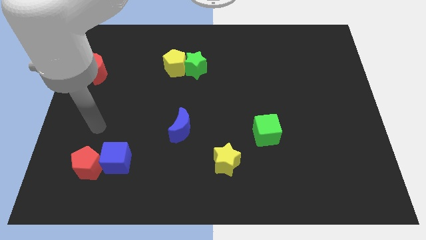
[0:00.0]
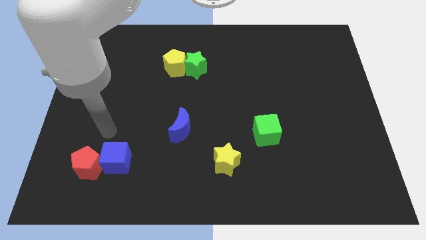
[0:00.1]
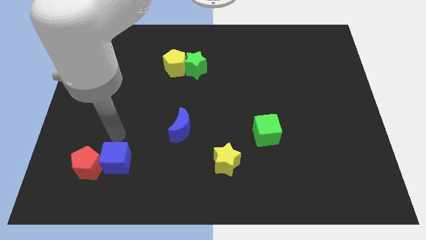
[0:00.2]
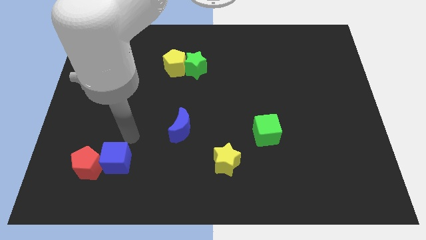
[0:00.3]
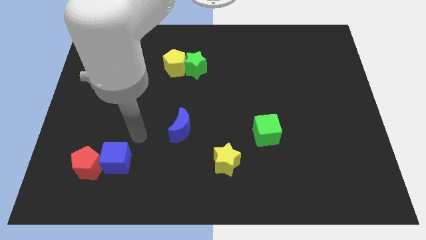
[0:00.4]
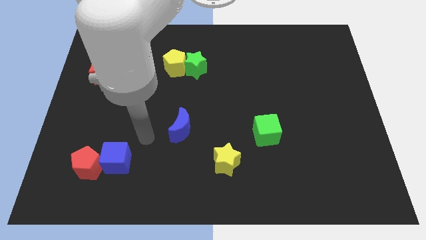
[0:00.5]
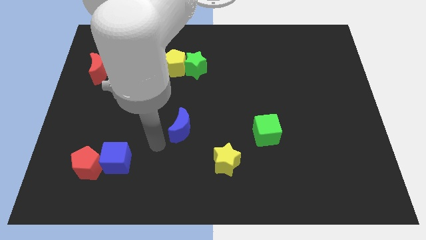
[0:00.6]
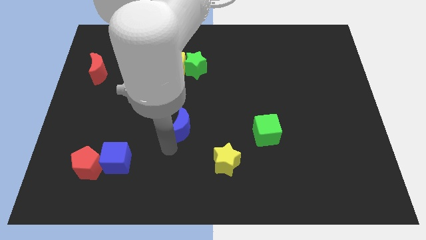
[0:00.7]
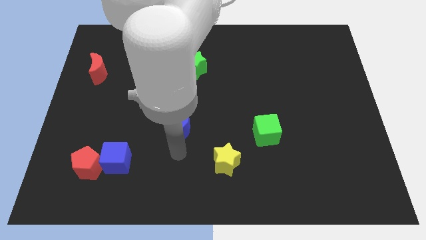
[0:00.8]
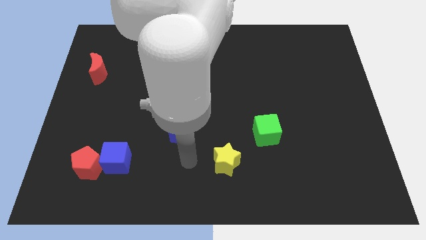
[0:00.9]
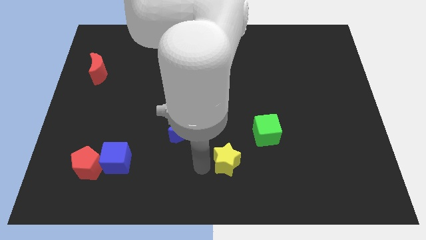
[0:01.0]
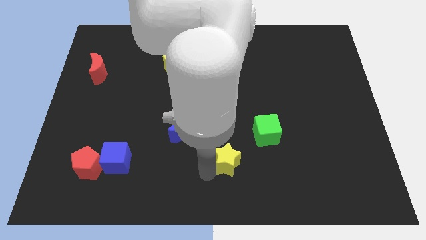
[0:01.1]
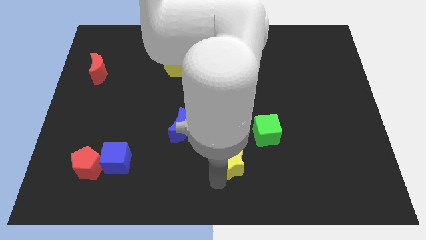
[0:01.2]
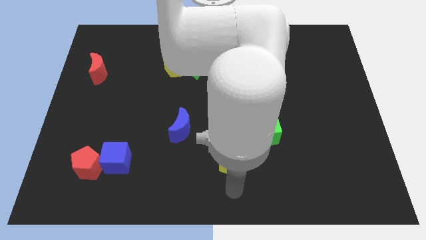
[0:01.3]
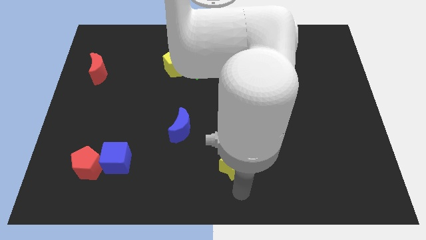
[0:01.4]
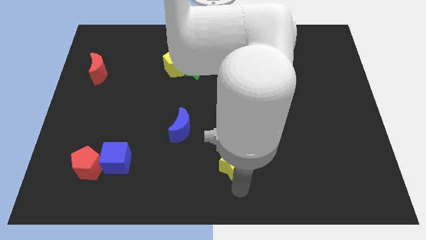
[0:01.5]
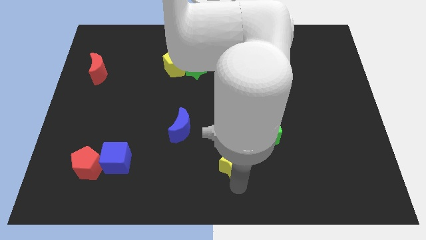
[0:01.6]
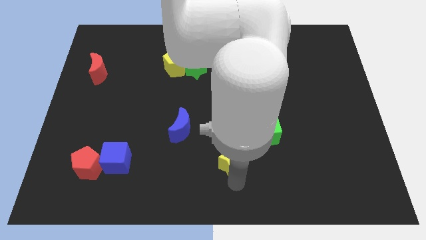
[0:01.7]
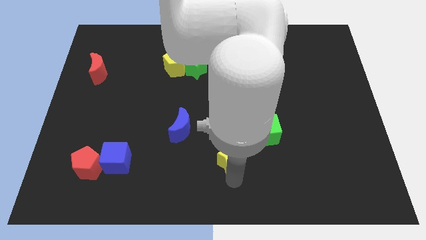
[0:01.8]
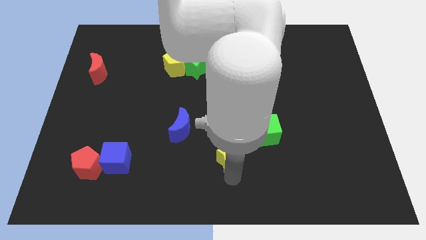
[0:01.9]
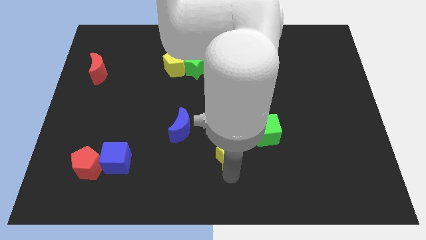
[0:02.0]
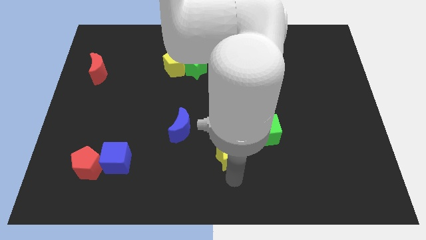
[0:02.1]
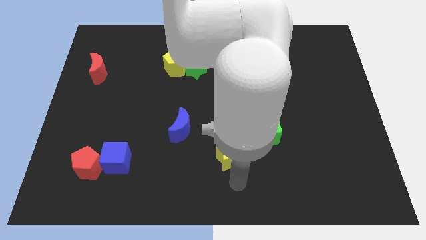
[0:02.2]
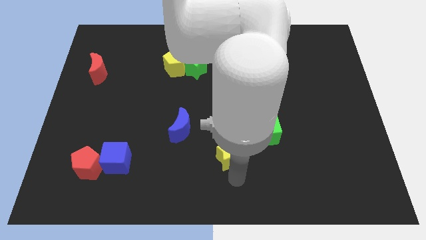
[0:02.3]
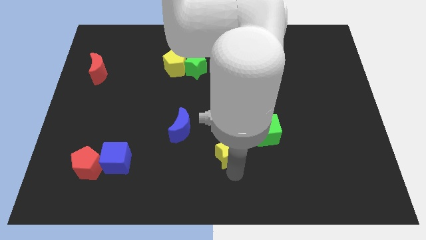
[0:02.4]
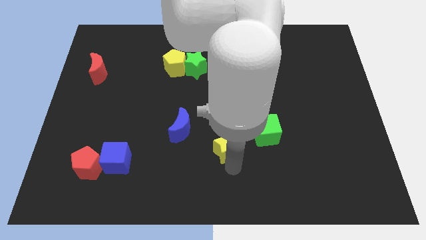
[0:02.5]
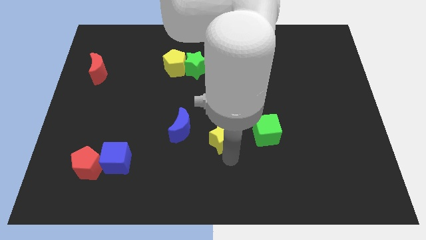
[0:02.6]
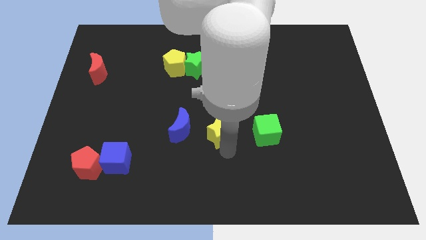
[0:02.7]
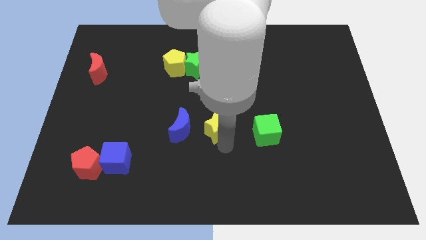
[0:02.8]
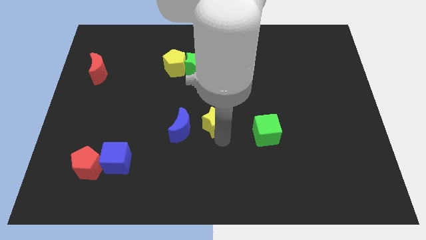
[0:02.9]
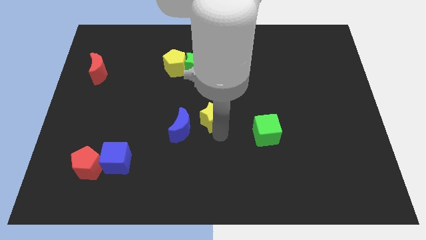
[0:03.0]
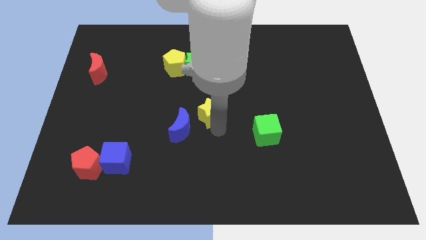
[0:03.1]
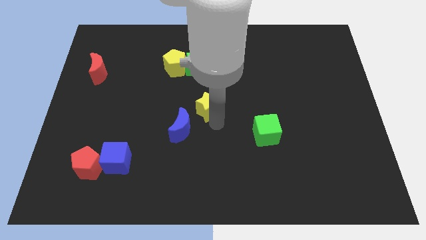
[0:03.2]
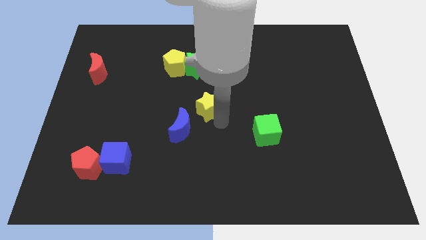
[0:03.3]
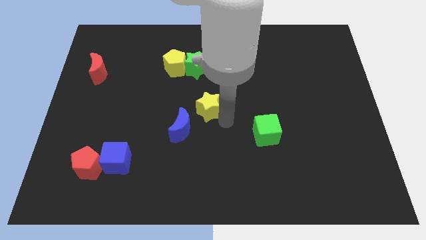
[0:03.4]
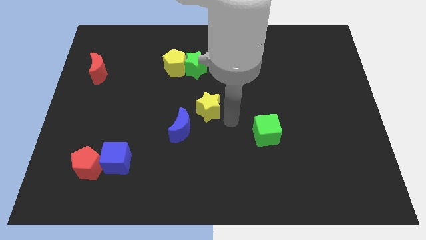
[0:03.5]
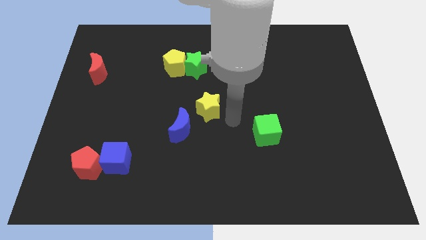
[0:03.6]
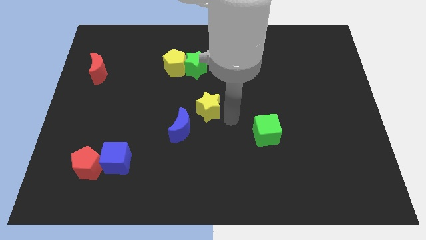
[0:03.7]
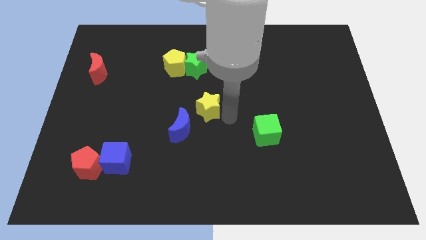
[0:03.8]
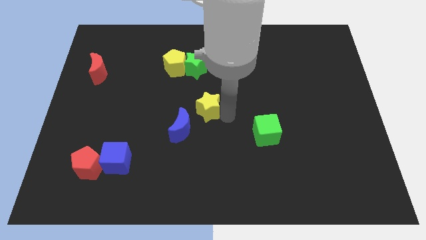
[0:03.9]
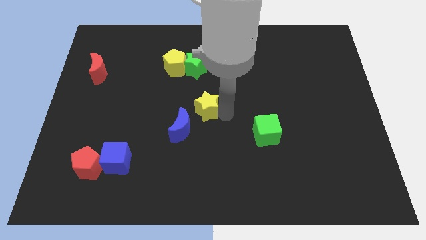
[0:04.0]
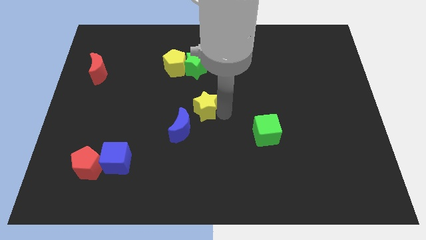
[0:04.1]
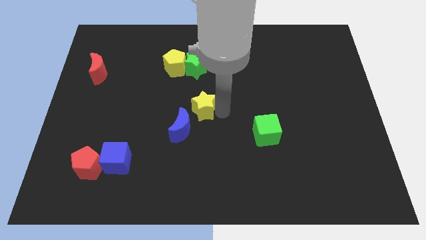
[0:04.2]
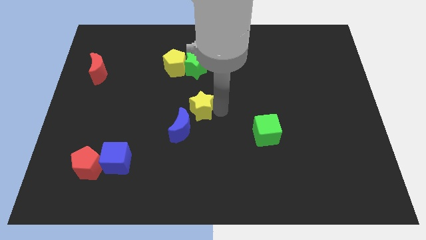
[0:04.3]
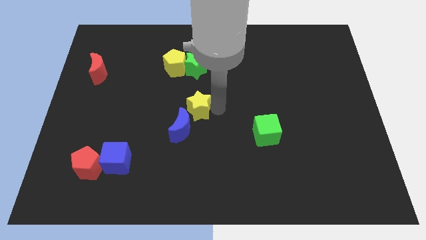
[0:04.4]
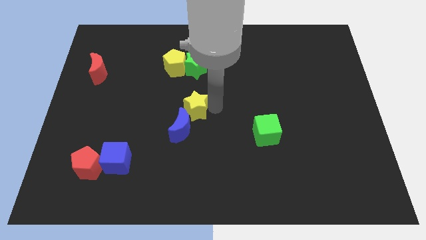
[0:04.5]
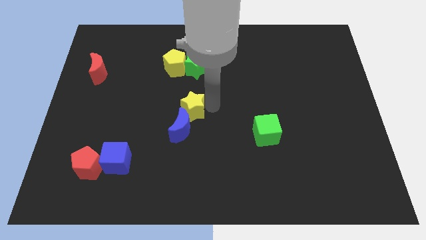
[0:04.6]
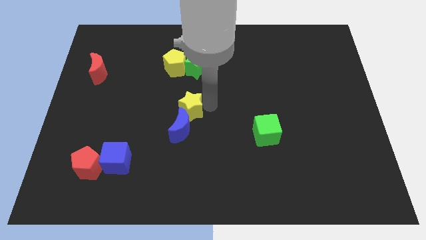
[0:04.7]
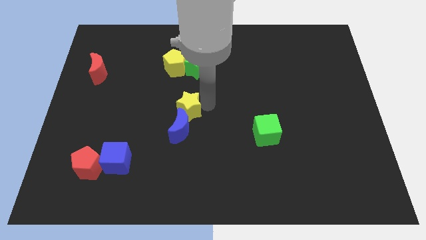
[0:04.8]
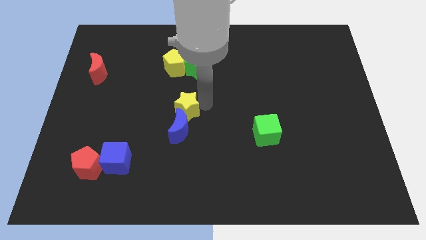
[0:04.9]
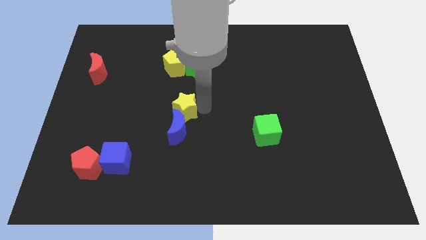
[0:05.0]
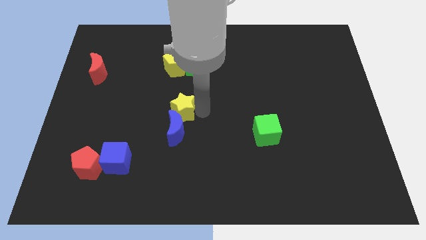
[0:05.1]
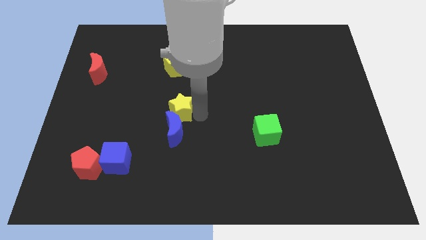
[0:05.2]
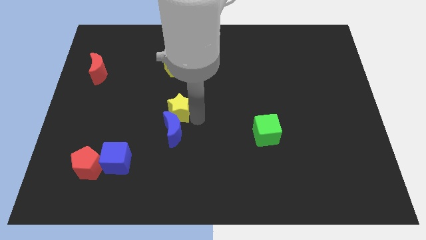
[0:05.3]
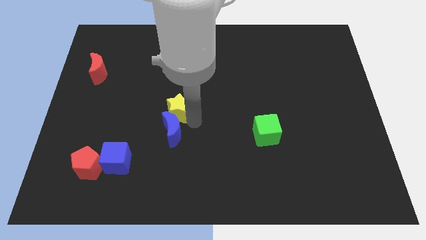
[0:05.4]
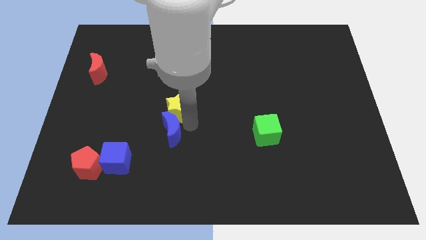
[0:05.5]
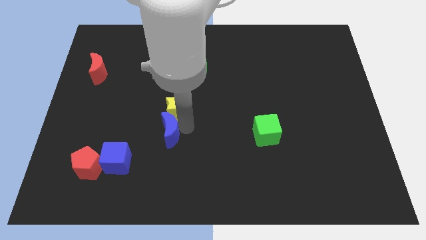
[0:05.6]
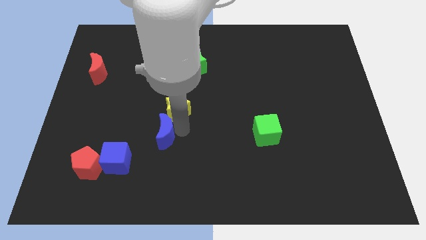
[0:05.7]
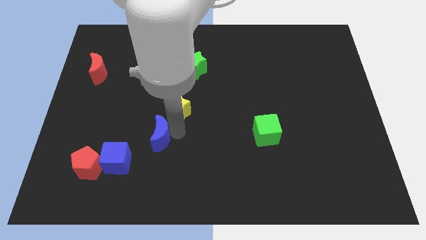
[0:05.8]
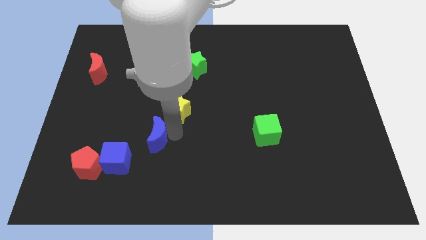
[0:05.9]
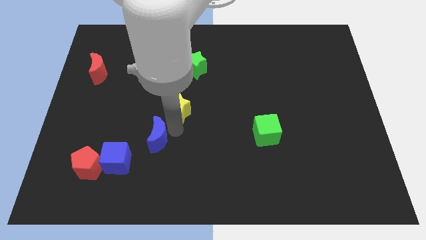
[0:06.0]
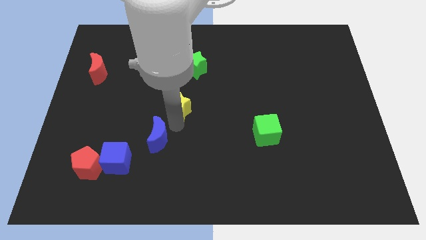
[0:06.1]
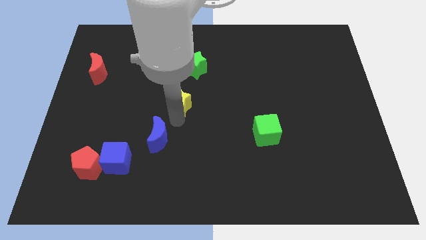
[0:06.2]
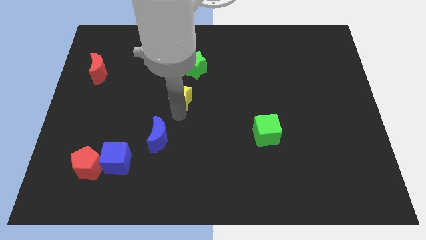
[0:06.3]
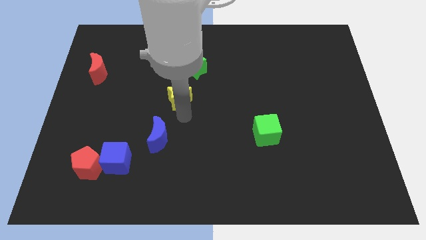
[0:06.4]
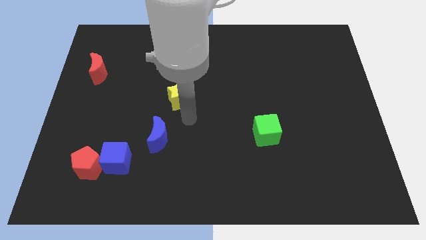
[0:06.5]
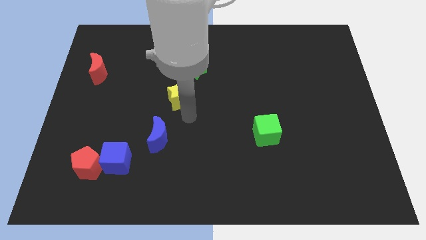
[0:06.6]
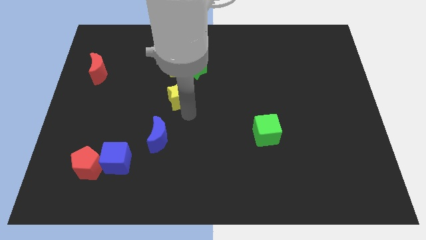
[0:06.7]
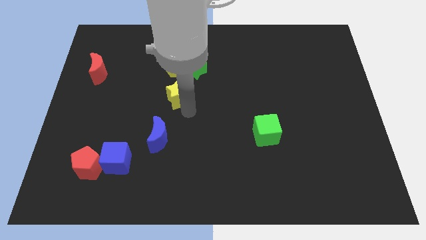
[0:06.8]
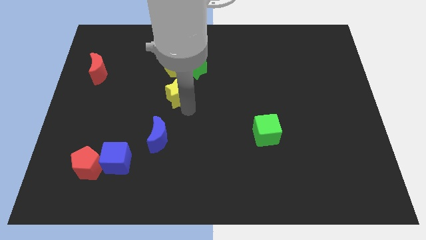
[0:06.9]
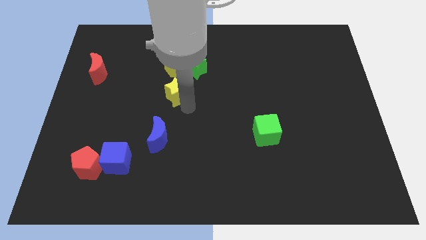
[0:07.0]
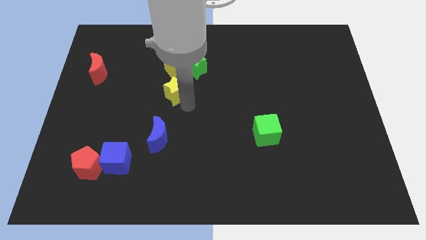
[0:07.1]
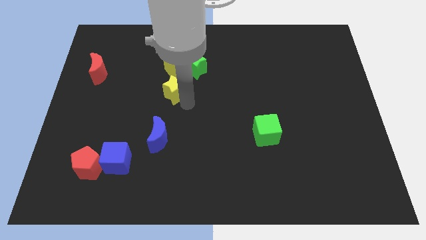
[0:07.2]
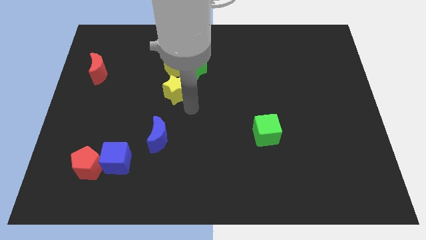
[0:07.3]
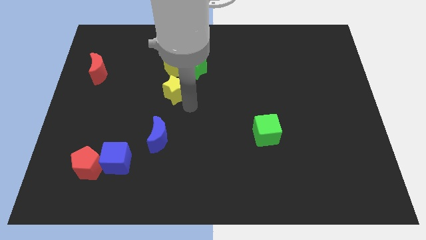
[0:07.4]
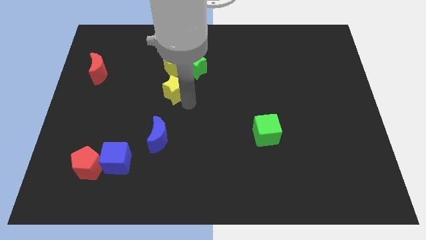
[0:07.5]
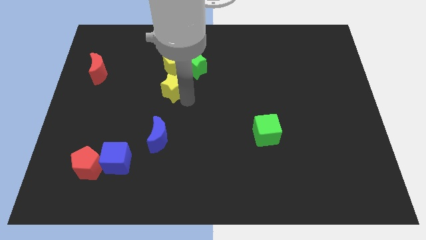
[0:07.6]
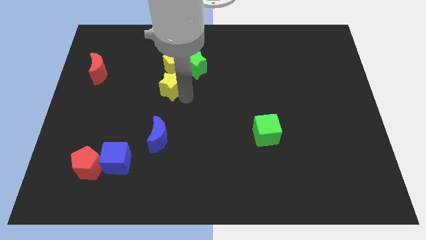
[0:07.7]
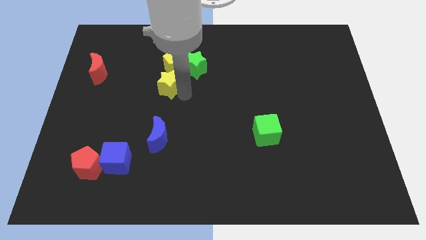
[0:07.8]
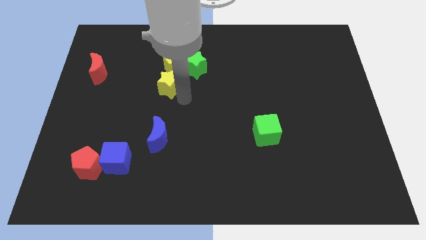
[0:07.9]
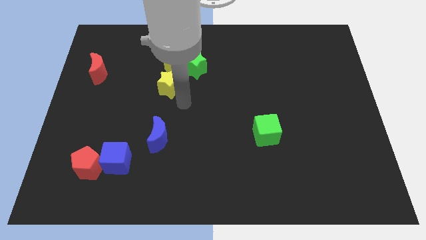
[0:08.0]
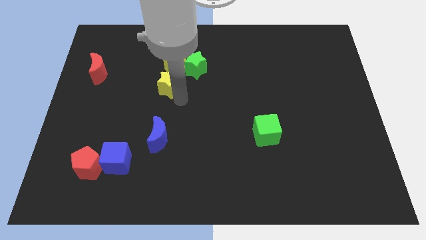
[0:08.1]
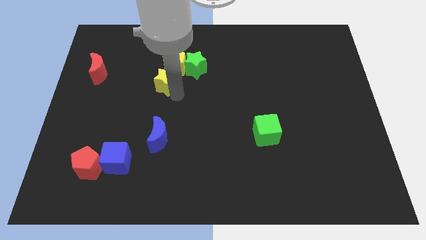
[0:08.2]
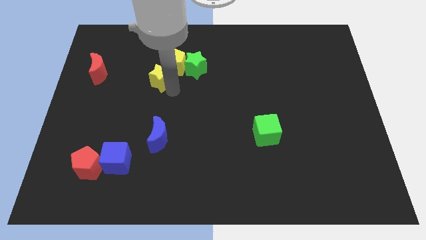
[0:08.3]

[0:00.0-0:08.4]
move the yellow star to the left of the green star
